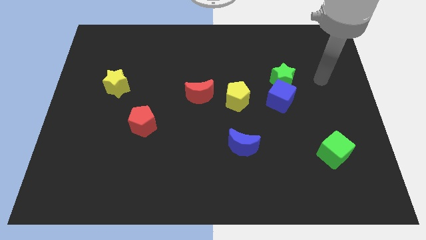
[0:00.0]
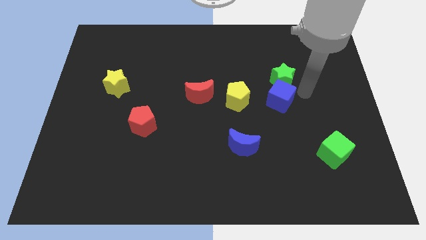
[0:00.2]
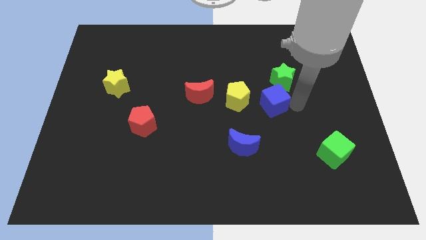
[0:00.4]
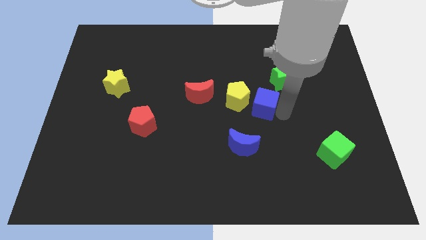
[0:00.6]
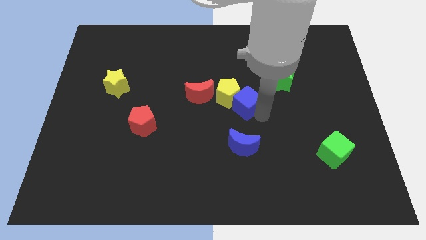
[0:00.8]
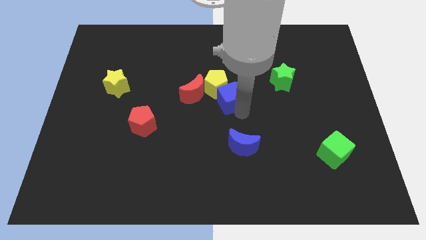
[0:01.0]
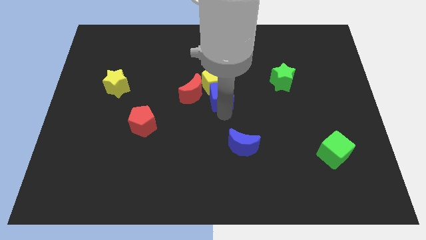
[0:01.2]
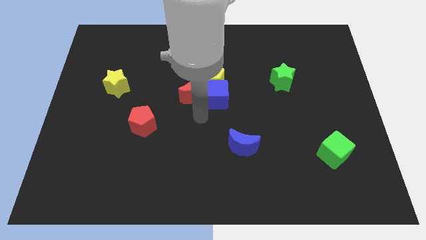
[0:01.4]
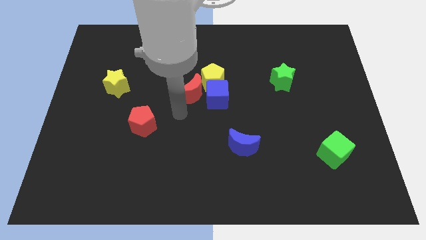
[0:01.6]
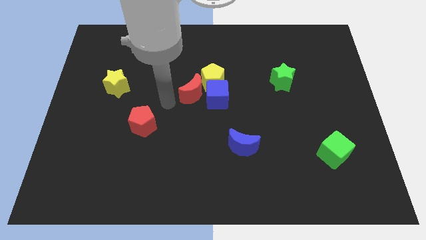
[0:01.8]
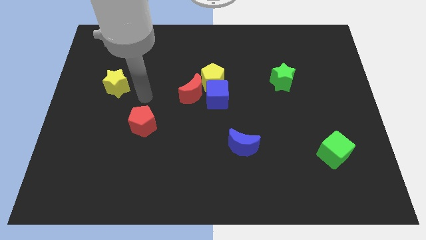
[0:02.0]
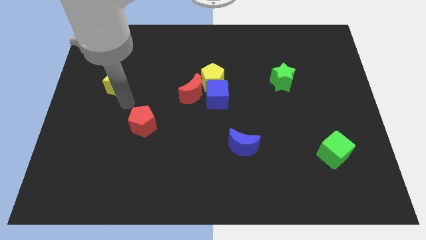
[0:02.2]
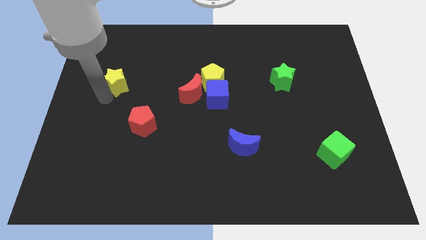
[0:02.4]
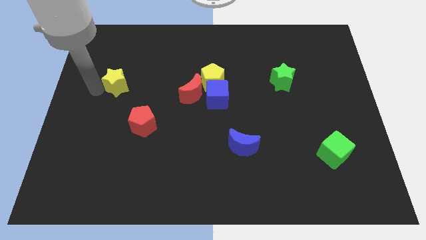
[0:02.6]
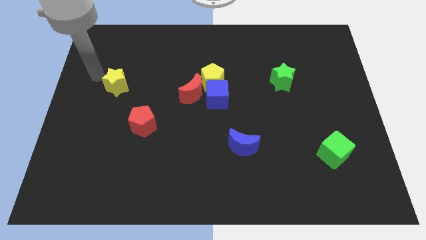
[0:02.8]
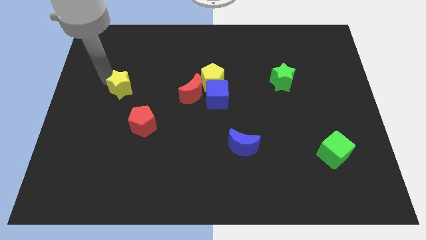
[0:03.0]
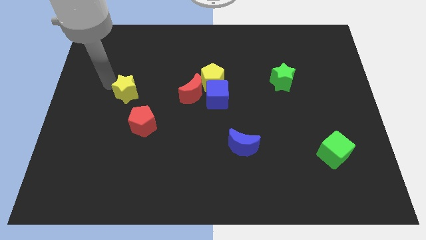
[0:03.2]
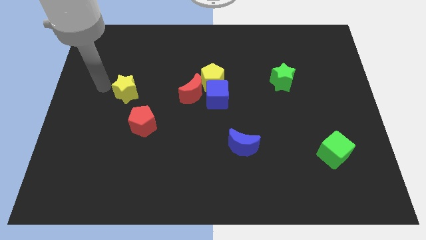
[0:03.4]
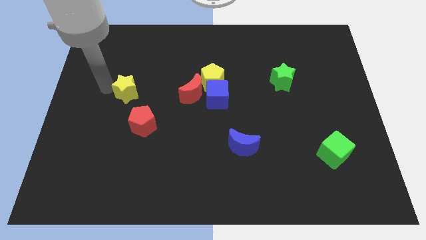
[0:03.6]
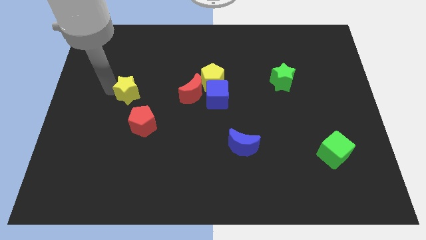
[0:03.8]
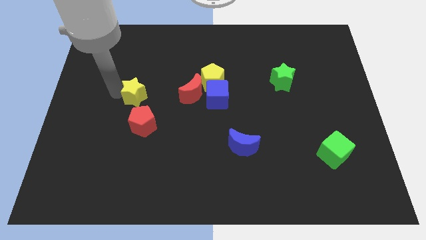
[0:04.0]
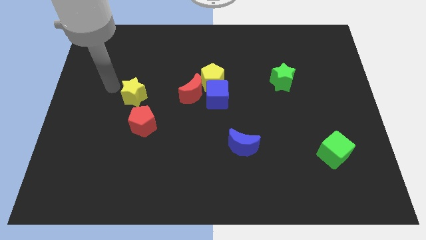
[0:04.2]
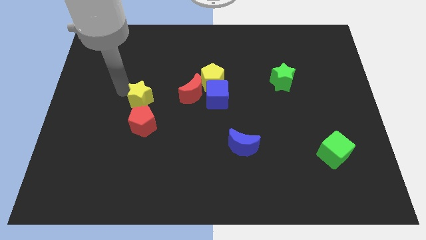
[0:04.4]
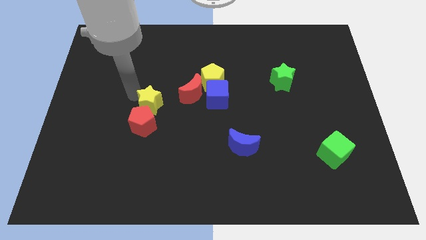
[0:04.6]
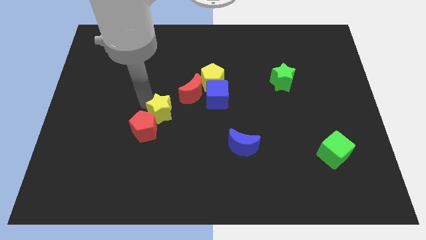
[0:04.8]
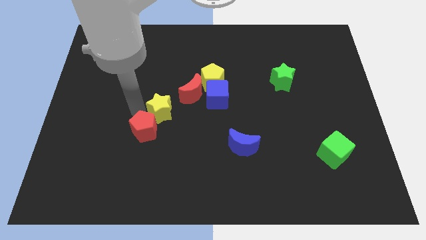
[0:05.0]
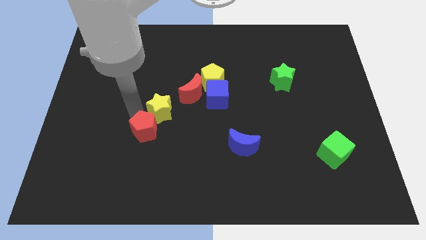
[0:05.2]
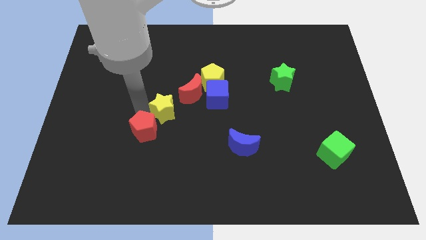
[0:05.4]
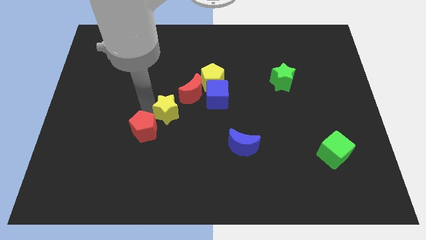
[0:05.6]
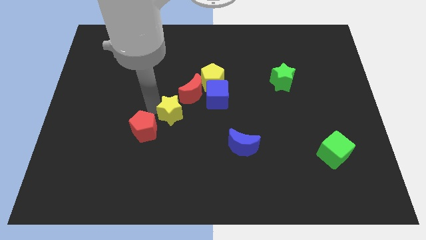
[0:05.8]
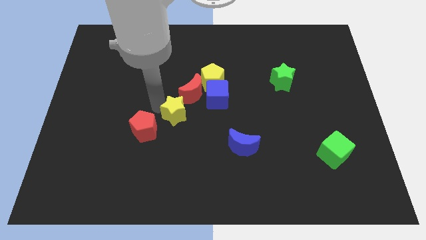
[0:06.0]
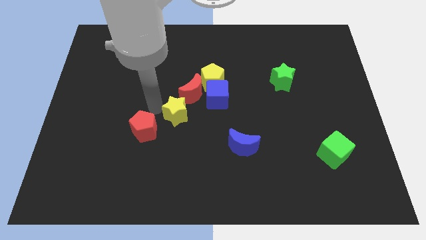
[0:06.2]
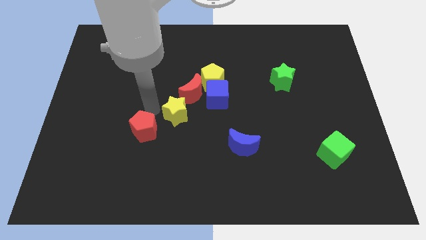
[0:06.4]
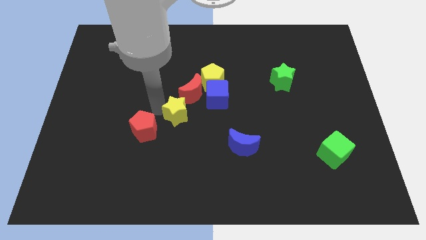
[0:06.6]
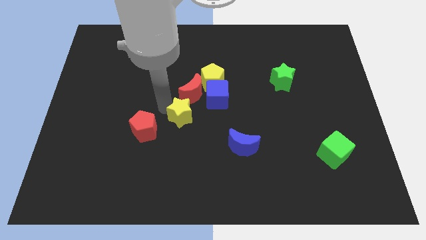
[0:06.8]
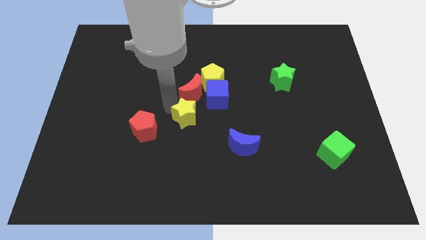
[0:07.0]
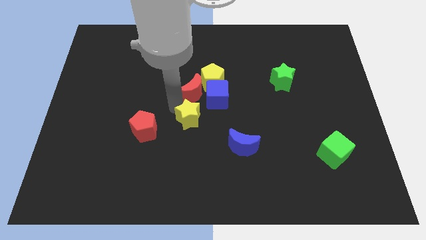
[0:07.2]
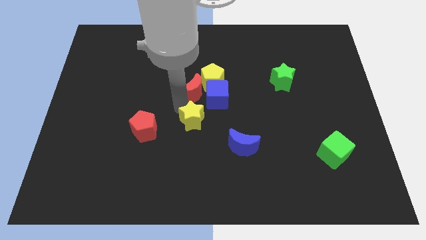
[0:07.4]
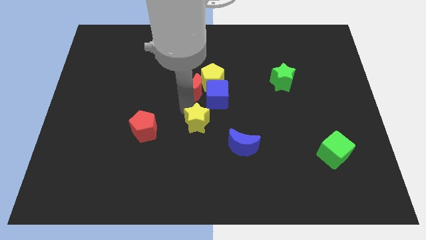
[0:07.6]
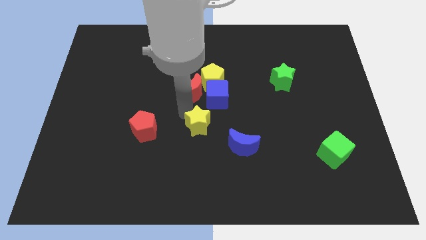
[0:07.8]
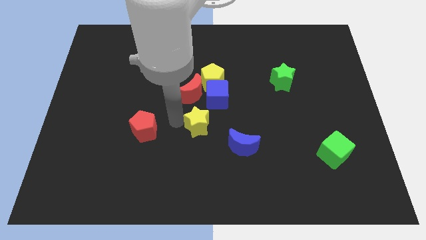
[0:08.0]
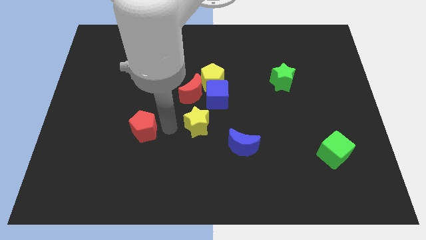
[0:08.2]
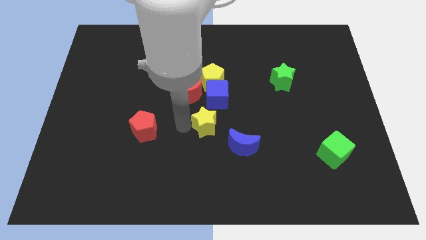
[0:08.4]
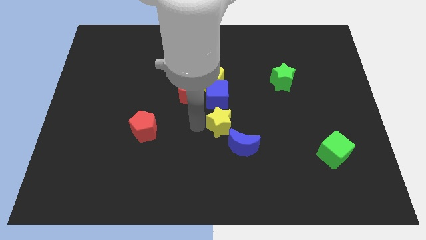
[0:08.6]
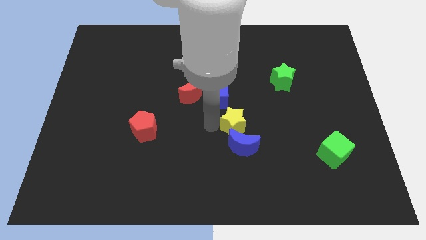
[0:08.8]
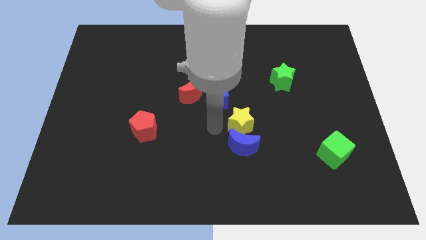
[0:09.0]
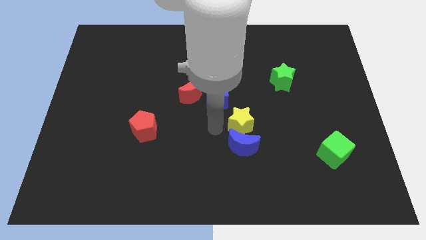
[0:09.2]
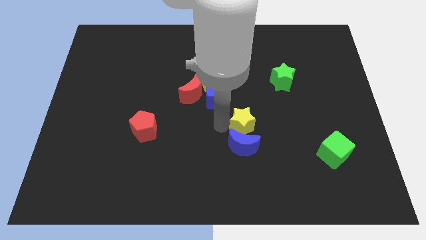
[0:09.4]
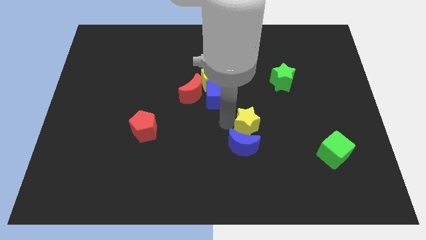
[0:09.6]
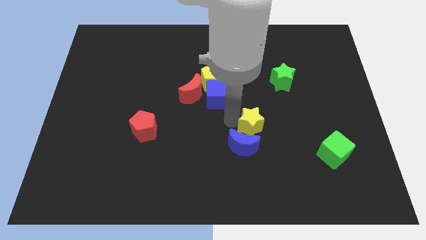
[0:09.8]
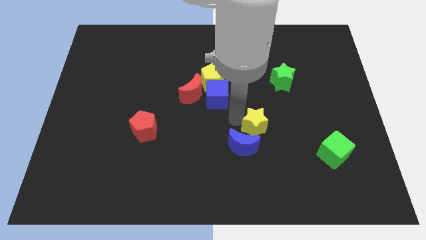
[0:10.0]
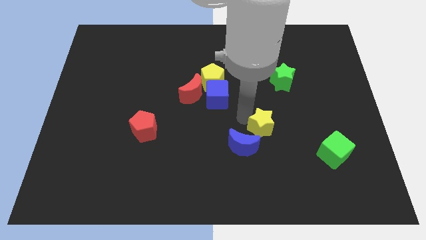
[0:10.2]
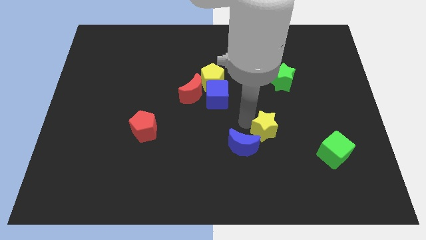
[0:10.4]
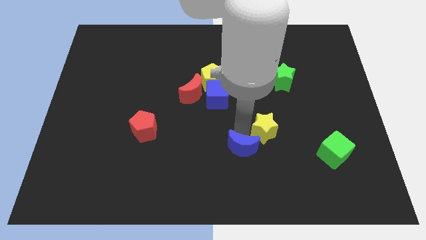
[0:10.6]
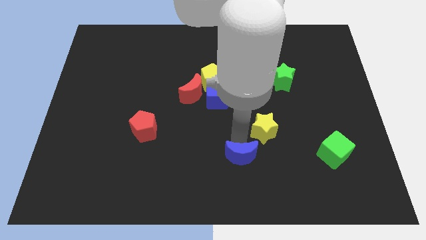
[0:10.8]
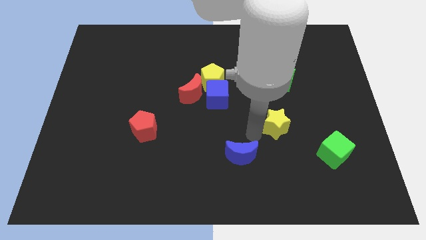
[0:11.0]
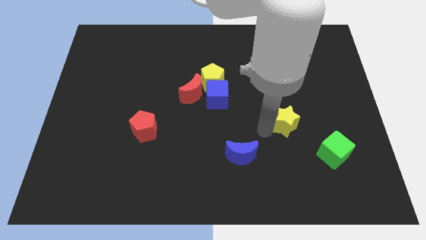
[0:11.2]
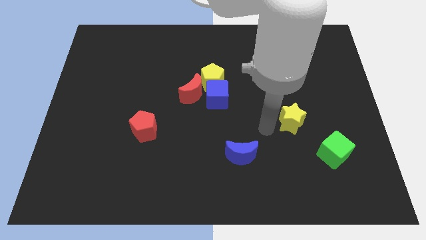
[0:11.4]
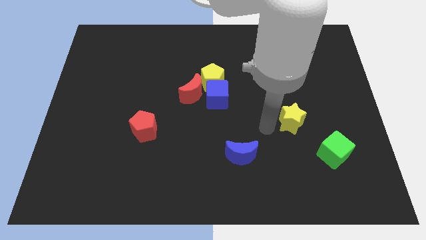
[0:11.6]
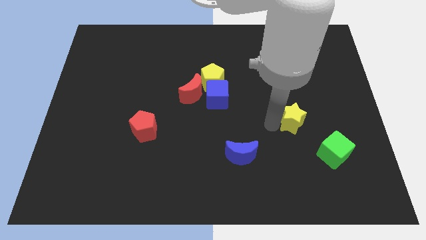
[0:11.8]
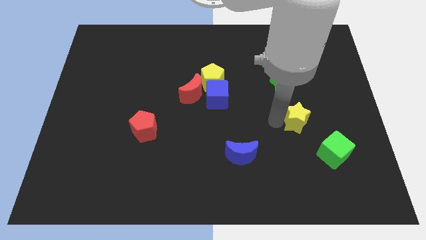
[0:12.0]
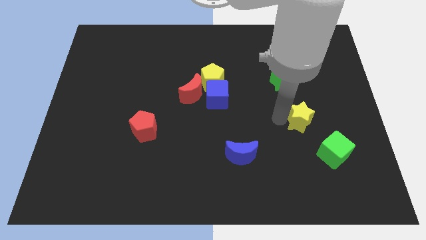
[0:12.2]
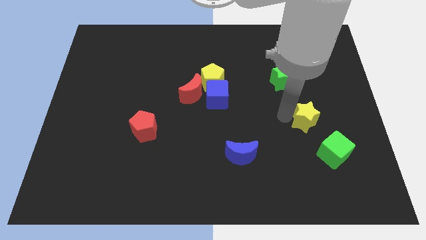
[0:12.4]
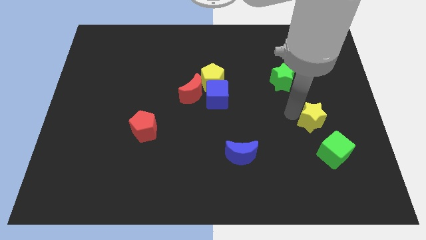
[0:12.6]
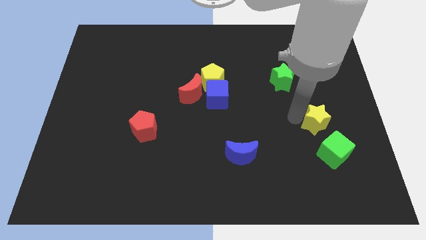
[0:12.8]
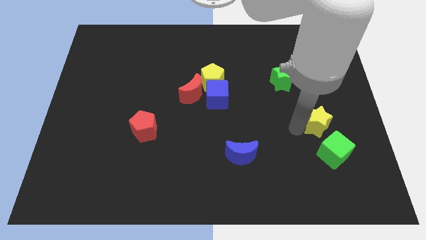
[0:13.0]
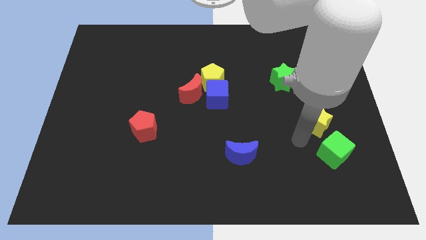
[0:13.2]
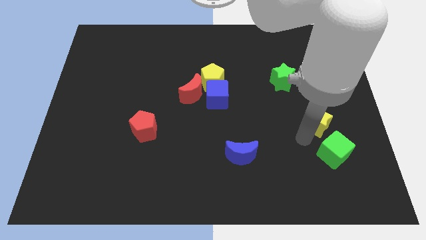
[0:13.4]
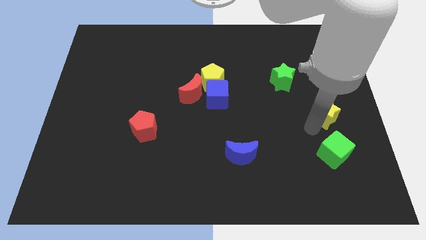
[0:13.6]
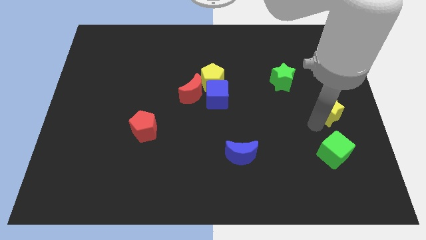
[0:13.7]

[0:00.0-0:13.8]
slide the yellow star to the center right
